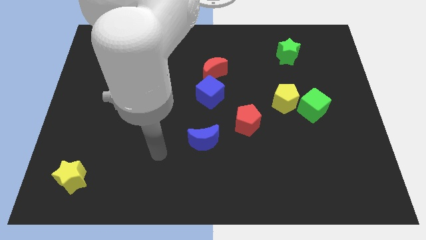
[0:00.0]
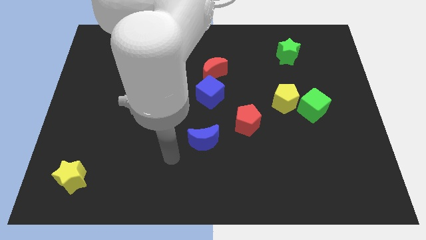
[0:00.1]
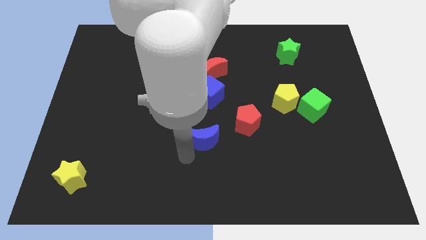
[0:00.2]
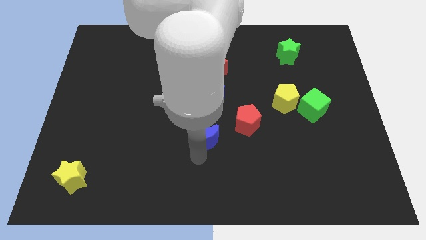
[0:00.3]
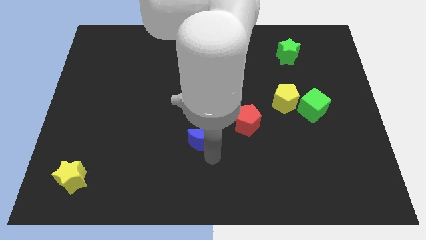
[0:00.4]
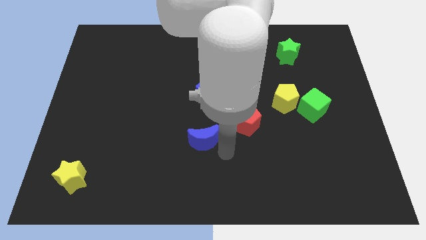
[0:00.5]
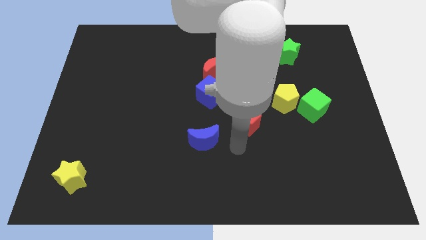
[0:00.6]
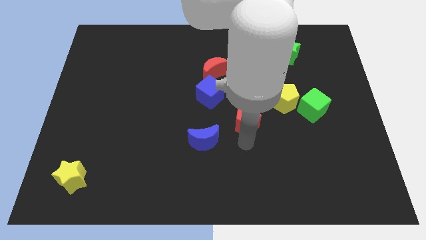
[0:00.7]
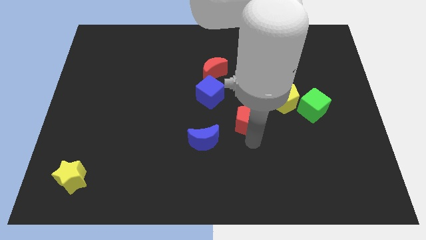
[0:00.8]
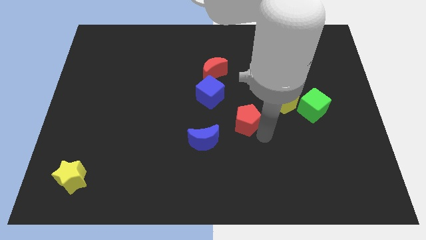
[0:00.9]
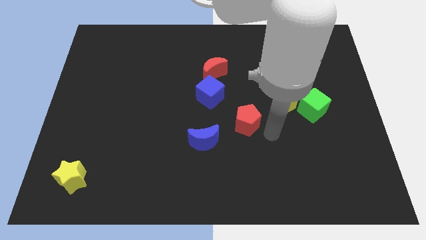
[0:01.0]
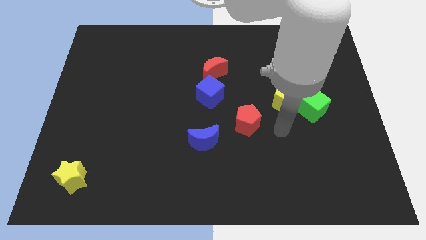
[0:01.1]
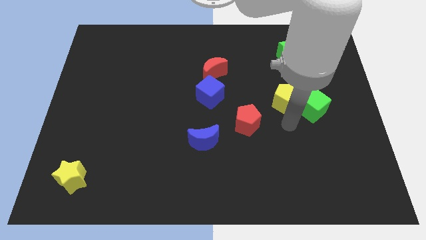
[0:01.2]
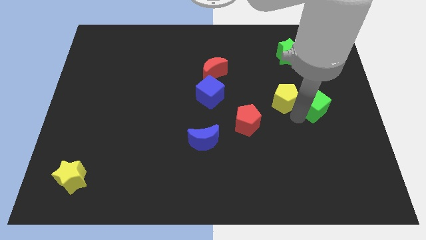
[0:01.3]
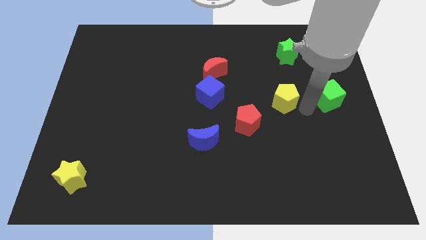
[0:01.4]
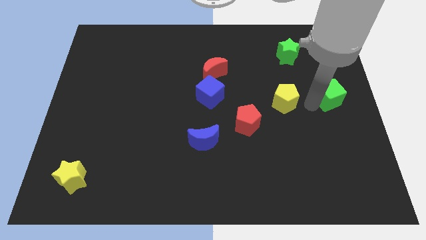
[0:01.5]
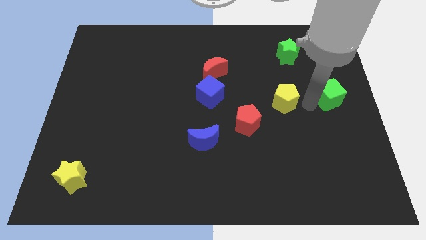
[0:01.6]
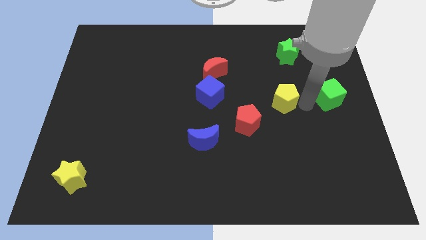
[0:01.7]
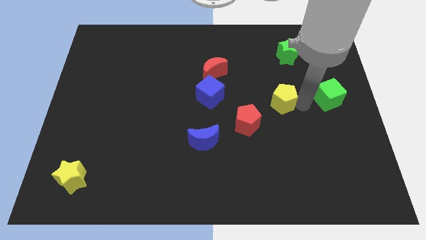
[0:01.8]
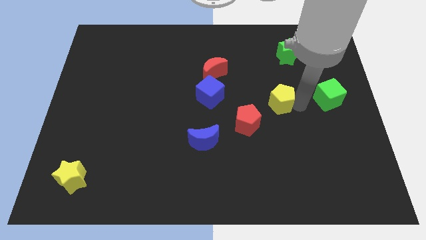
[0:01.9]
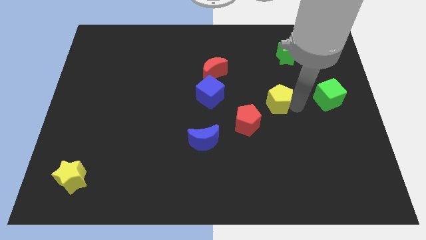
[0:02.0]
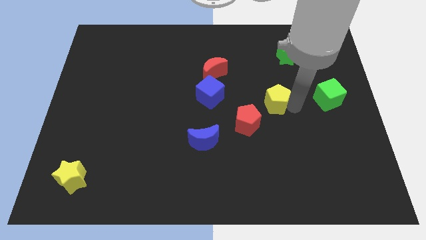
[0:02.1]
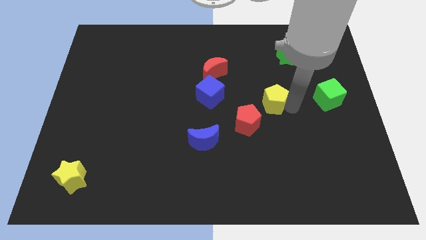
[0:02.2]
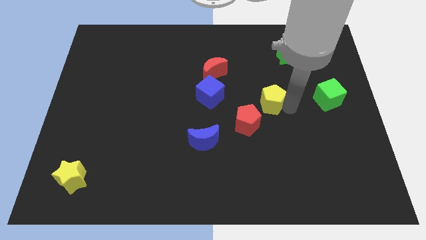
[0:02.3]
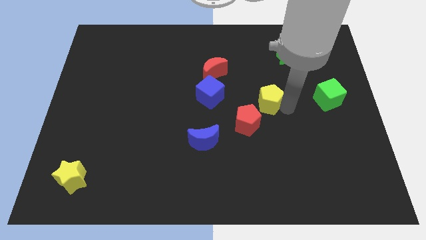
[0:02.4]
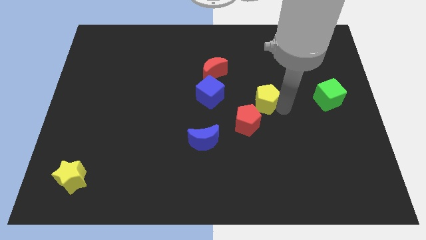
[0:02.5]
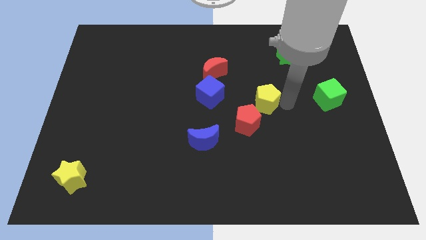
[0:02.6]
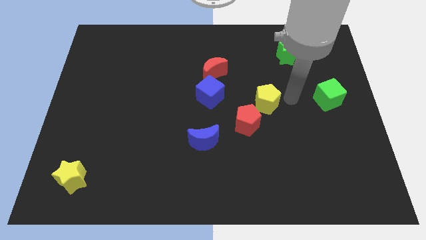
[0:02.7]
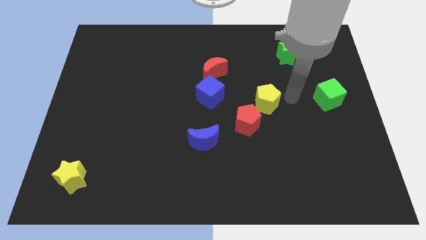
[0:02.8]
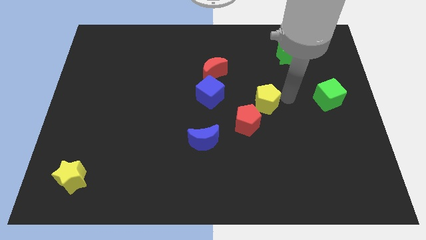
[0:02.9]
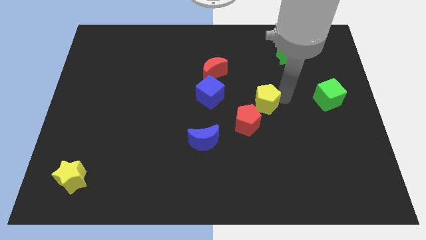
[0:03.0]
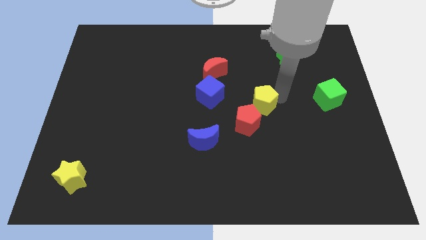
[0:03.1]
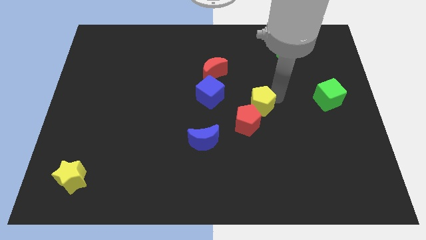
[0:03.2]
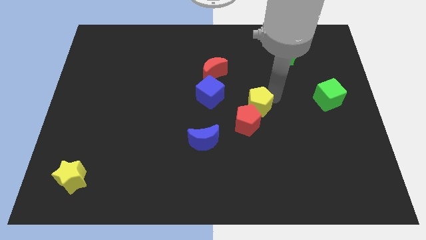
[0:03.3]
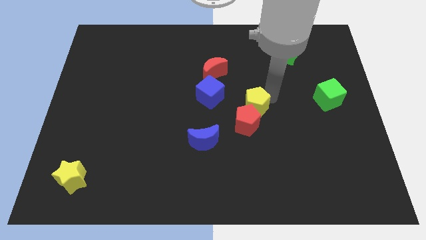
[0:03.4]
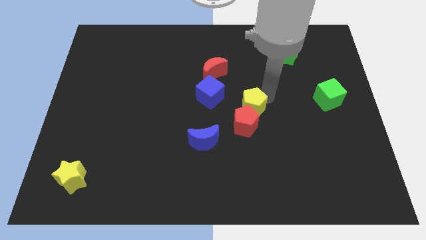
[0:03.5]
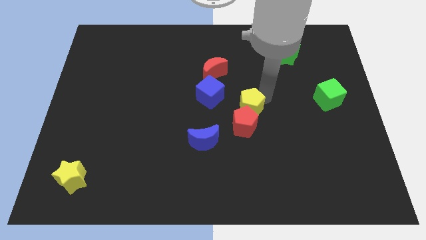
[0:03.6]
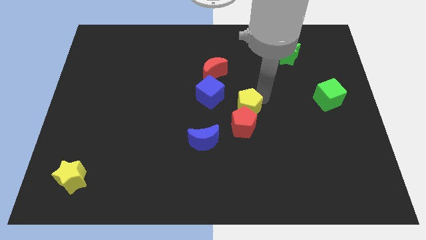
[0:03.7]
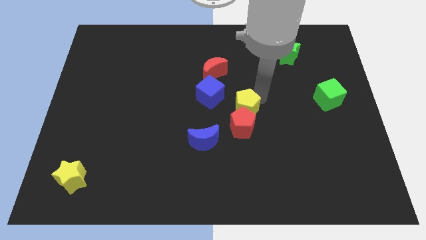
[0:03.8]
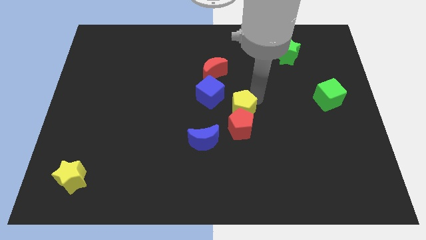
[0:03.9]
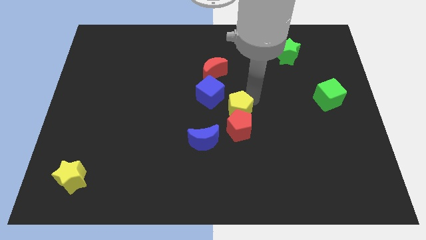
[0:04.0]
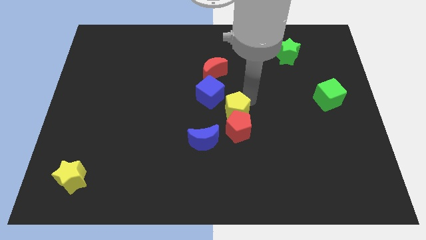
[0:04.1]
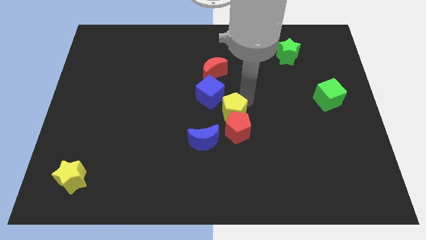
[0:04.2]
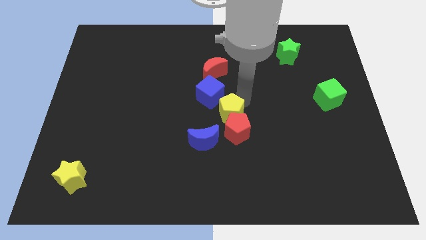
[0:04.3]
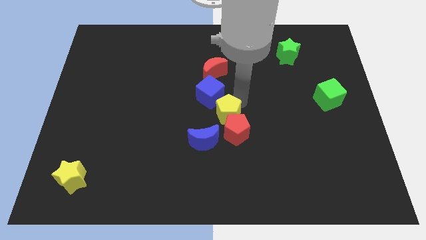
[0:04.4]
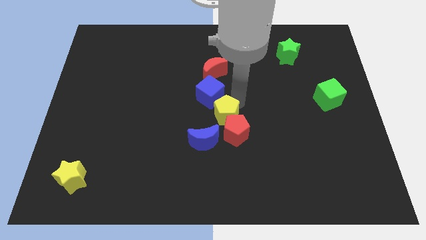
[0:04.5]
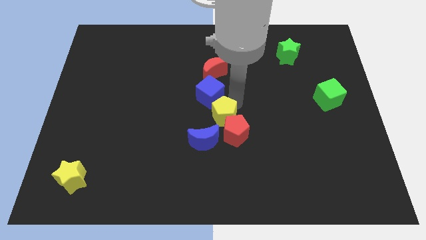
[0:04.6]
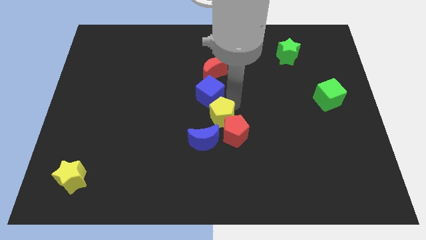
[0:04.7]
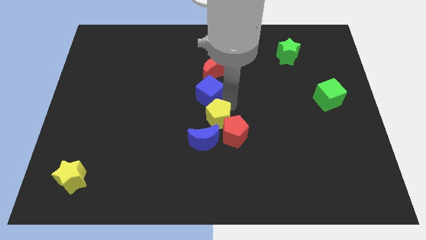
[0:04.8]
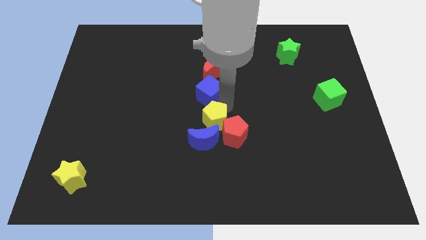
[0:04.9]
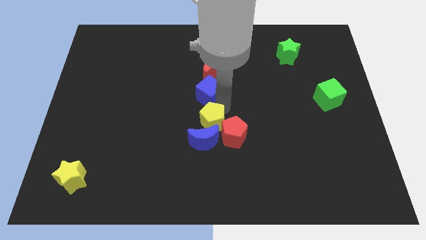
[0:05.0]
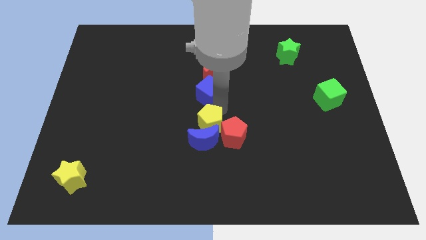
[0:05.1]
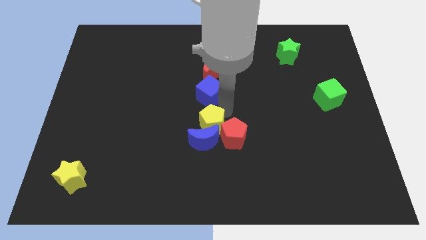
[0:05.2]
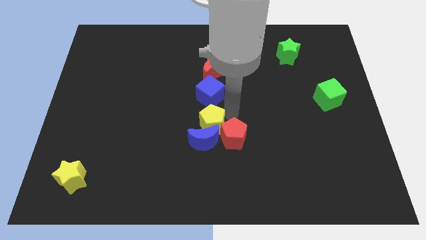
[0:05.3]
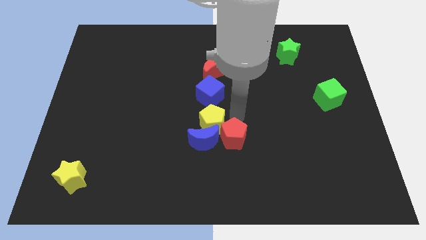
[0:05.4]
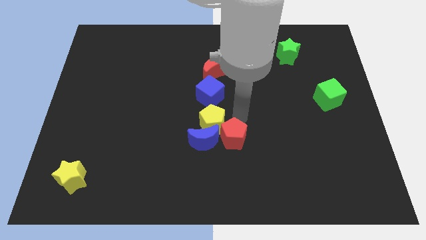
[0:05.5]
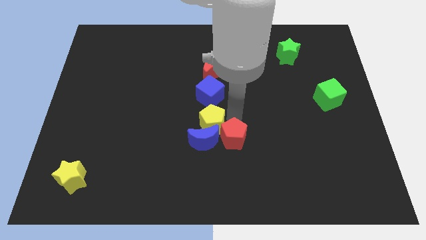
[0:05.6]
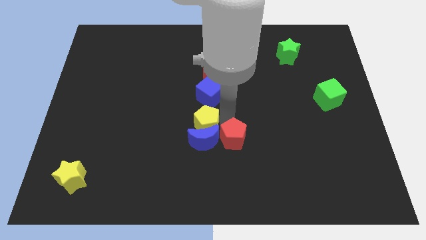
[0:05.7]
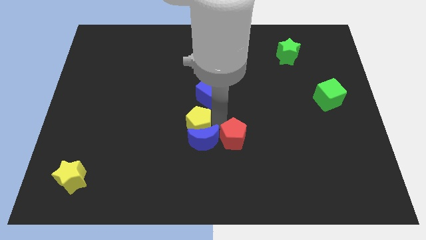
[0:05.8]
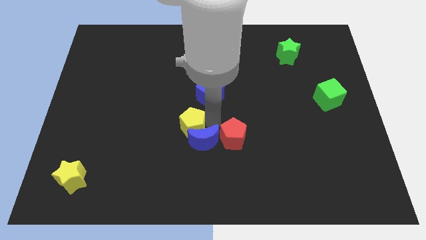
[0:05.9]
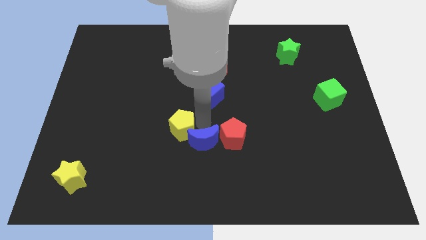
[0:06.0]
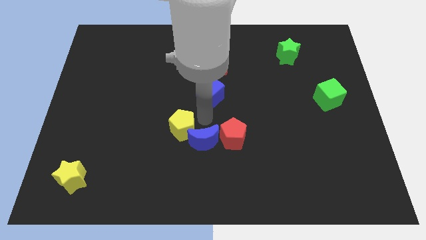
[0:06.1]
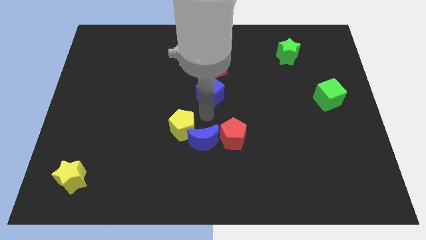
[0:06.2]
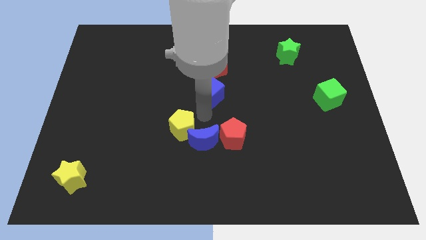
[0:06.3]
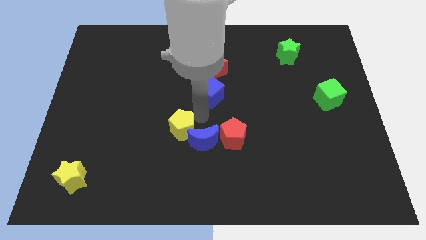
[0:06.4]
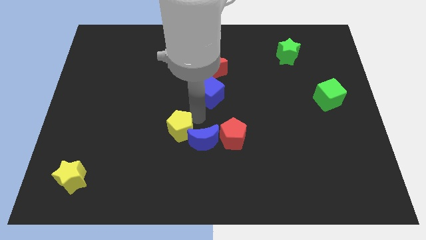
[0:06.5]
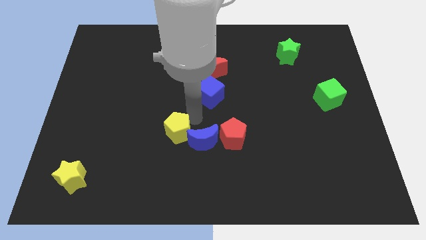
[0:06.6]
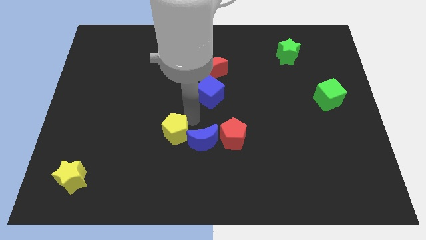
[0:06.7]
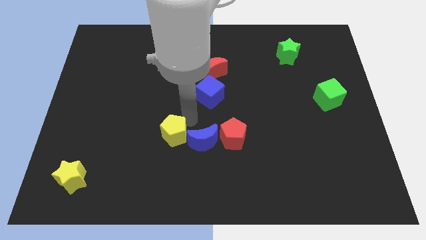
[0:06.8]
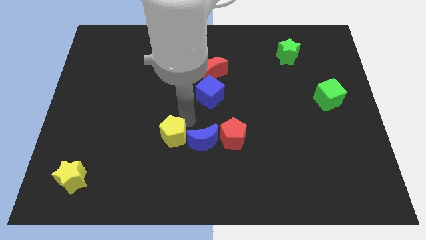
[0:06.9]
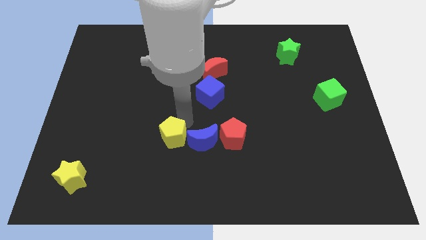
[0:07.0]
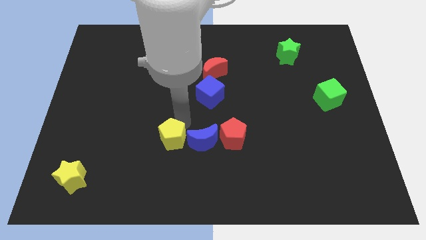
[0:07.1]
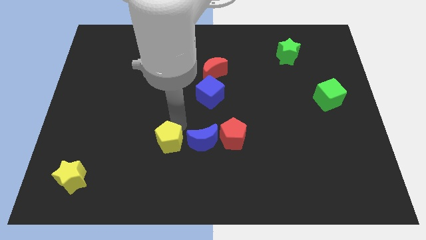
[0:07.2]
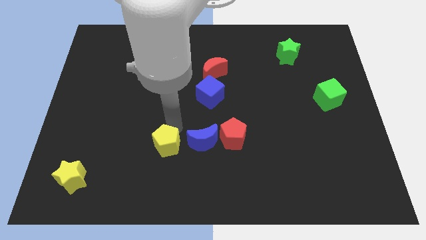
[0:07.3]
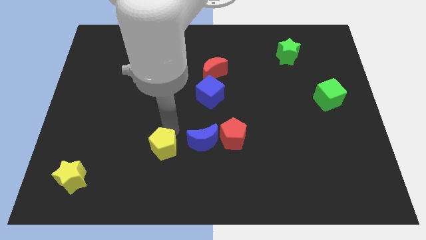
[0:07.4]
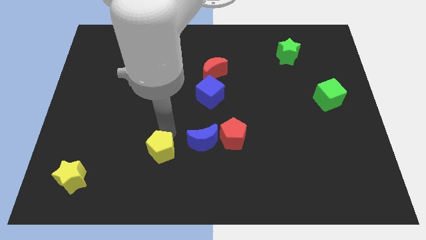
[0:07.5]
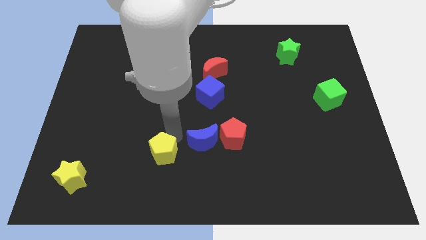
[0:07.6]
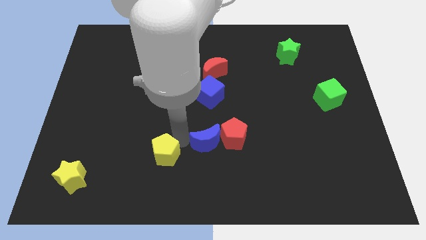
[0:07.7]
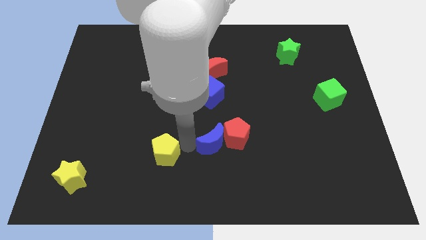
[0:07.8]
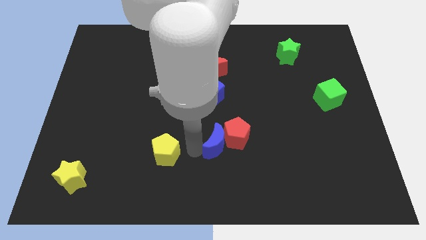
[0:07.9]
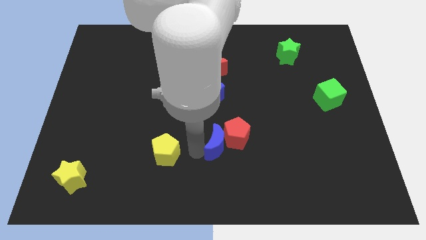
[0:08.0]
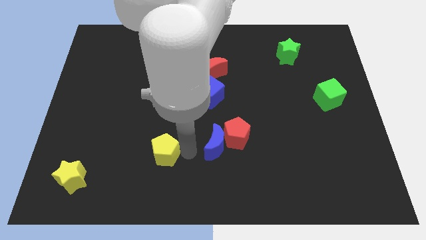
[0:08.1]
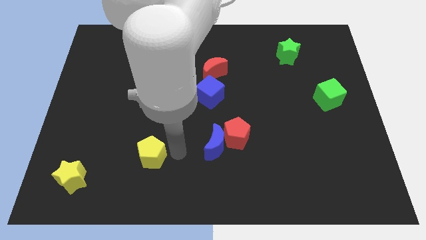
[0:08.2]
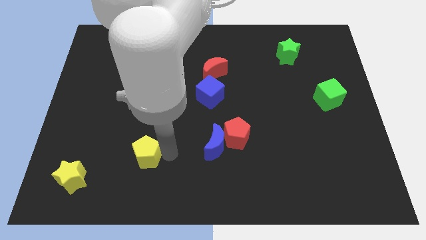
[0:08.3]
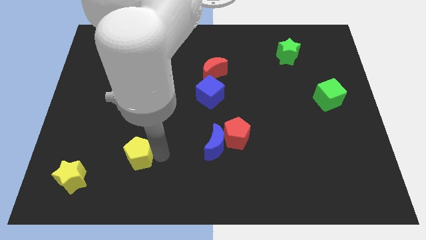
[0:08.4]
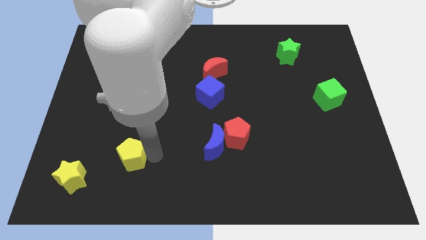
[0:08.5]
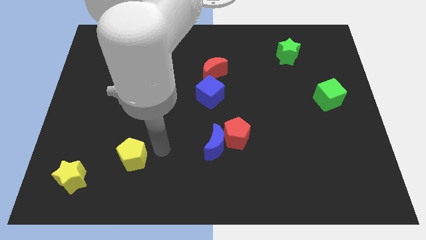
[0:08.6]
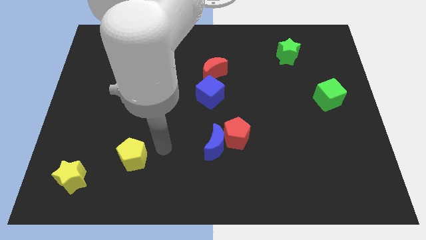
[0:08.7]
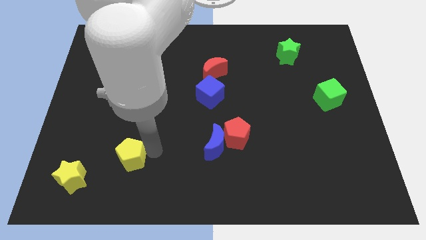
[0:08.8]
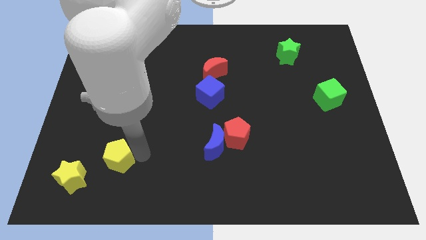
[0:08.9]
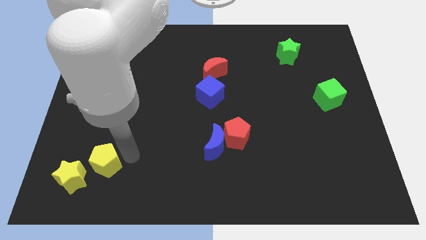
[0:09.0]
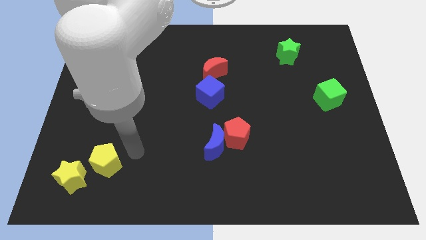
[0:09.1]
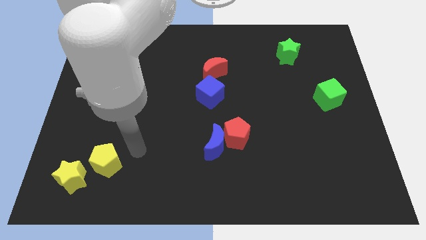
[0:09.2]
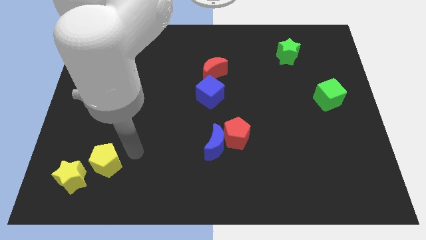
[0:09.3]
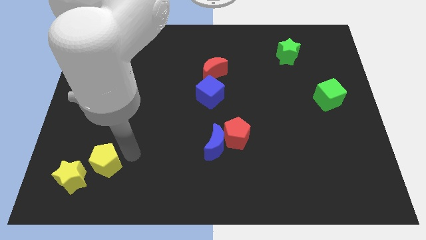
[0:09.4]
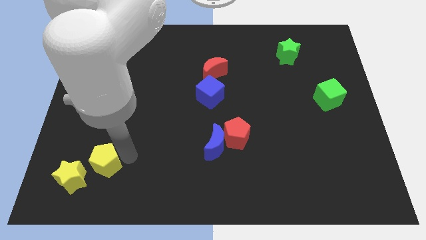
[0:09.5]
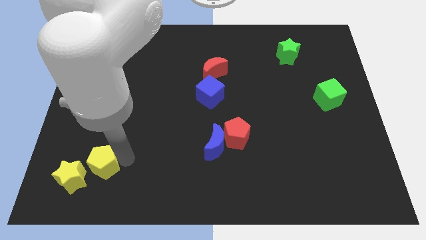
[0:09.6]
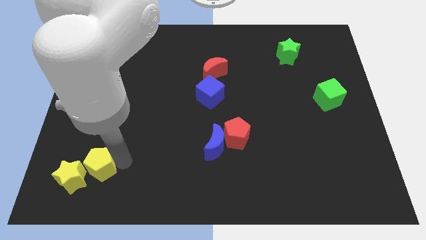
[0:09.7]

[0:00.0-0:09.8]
slide the yellow pentagon to the yellow star
